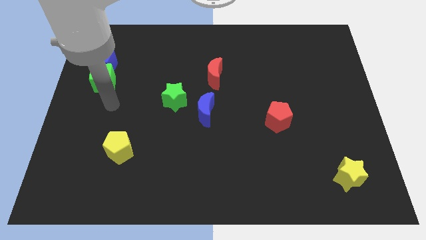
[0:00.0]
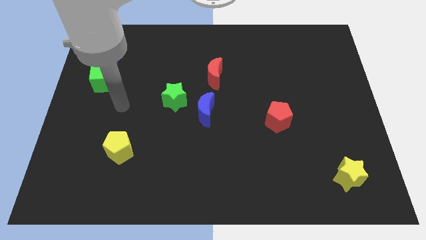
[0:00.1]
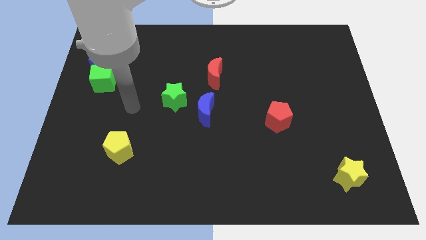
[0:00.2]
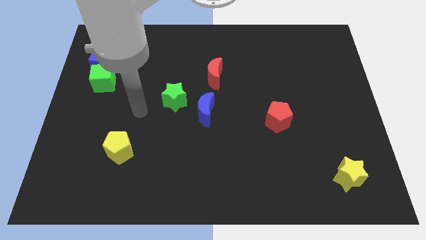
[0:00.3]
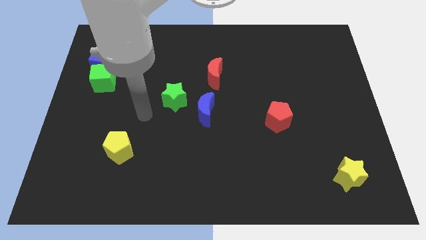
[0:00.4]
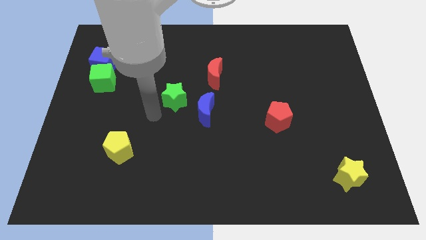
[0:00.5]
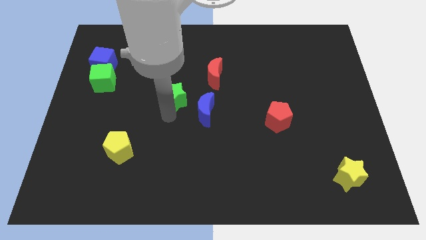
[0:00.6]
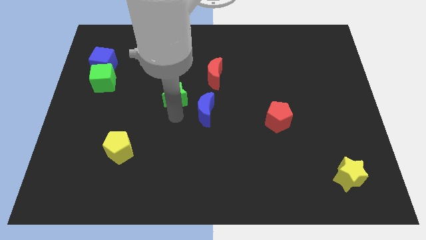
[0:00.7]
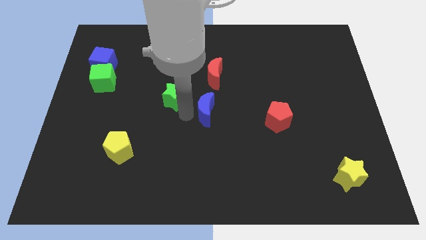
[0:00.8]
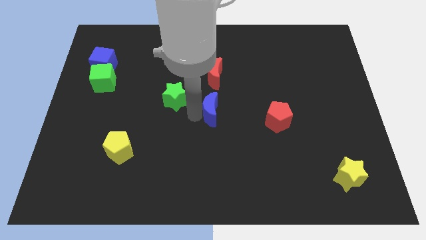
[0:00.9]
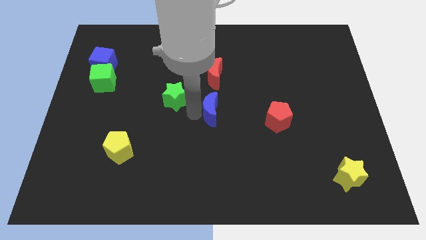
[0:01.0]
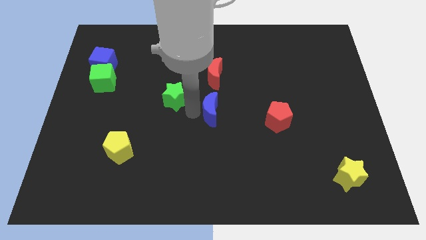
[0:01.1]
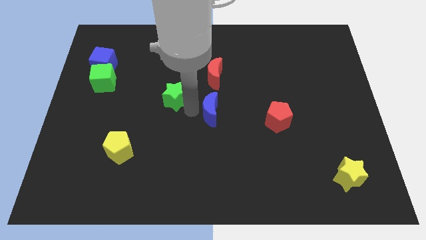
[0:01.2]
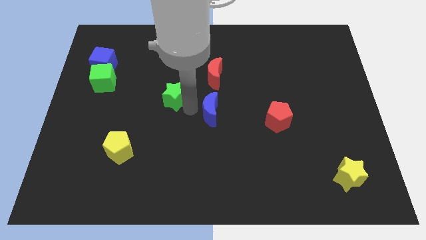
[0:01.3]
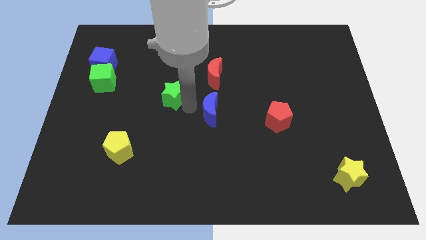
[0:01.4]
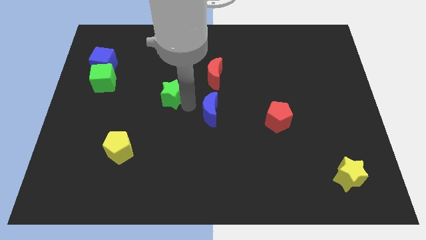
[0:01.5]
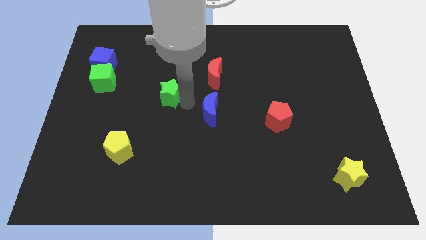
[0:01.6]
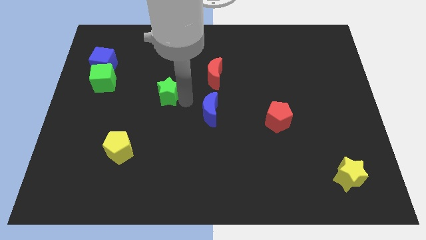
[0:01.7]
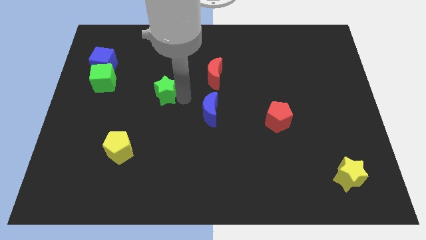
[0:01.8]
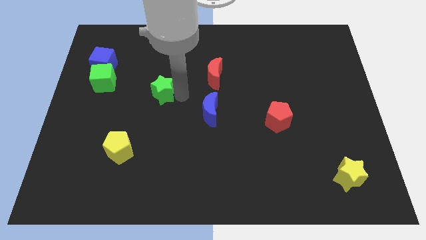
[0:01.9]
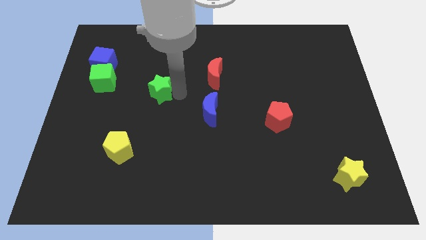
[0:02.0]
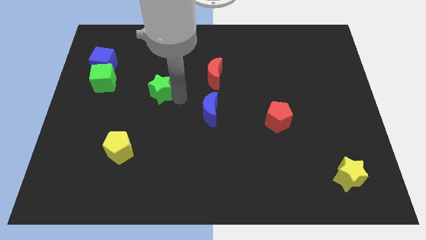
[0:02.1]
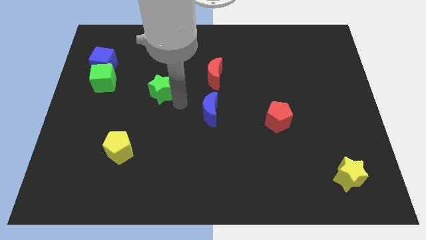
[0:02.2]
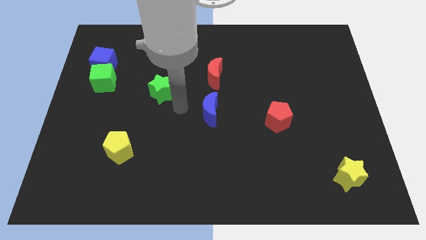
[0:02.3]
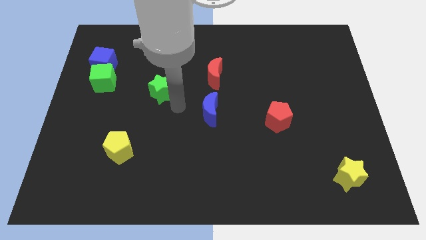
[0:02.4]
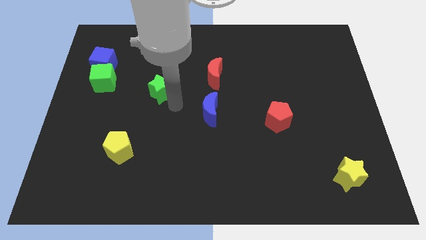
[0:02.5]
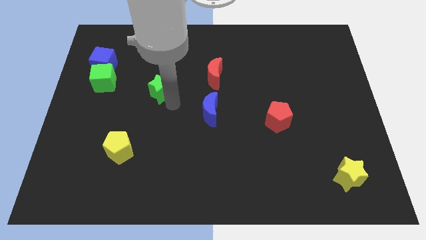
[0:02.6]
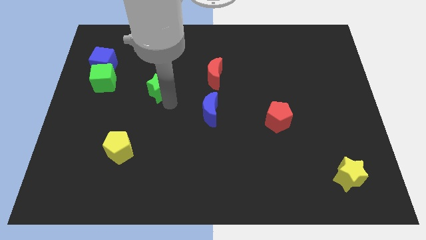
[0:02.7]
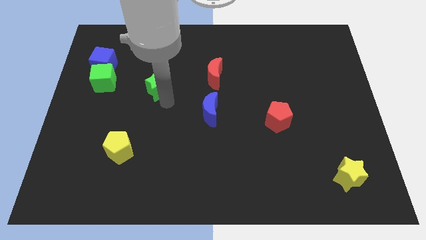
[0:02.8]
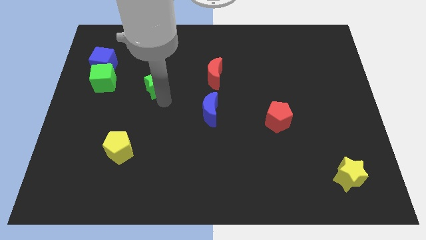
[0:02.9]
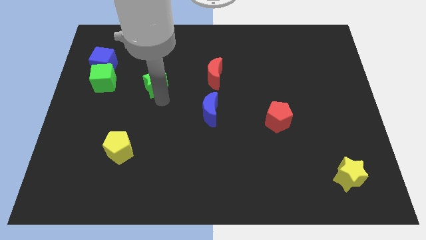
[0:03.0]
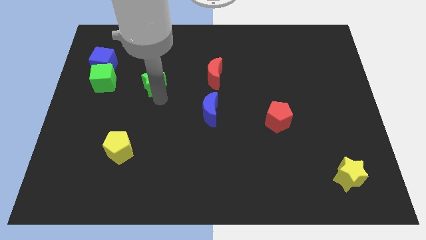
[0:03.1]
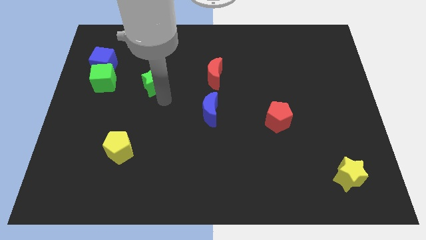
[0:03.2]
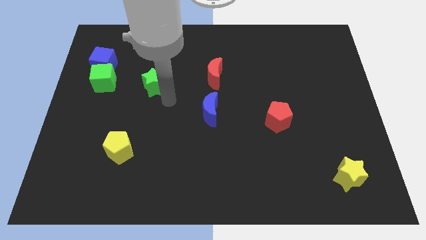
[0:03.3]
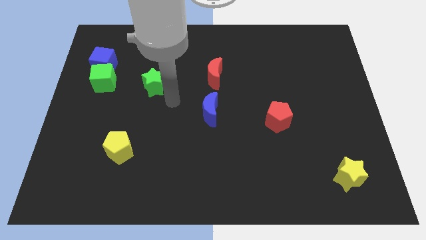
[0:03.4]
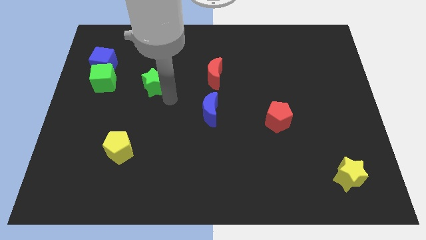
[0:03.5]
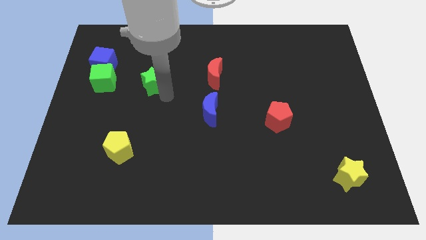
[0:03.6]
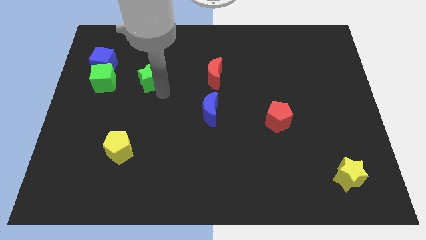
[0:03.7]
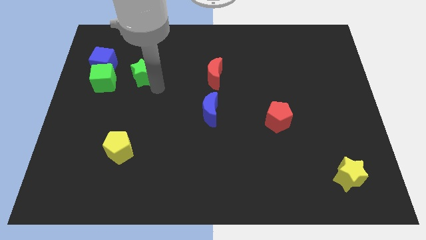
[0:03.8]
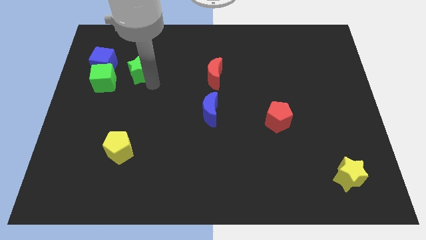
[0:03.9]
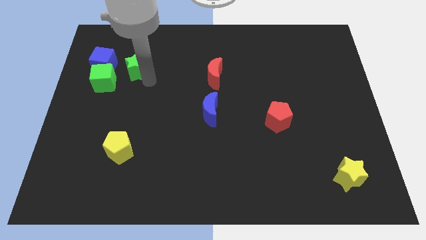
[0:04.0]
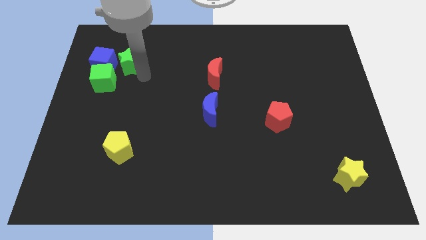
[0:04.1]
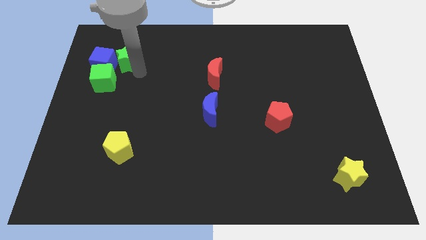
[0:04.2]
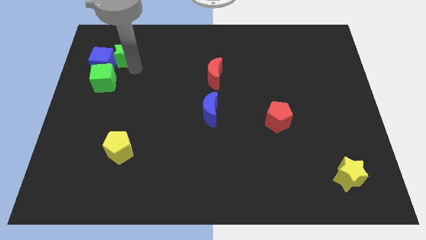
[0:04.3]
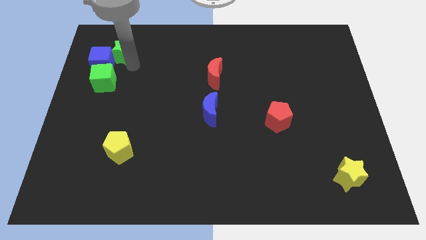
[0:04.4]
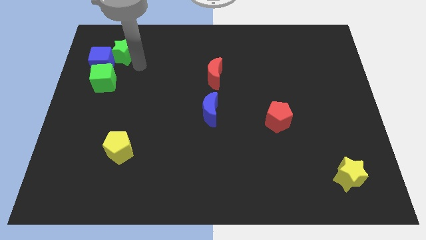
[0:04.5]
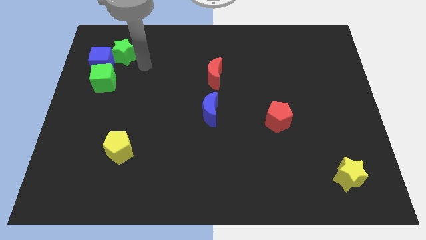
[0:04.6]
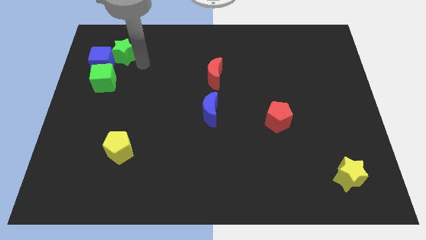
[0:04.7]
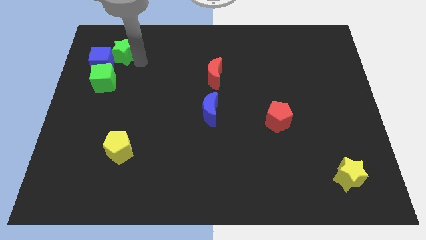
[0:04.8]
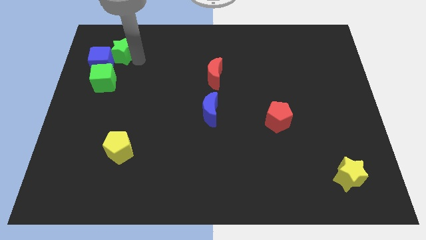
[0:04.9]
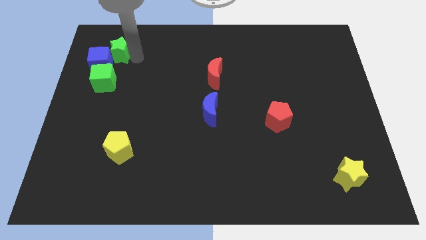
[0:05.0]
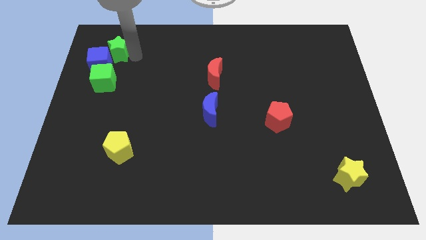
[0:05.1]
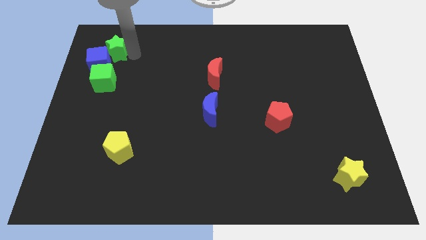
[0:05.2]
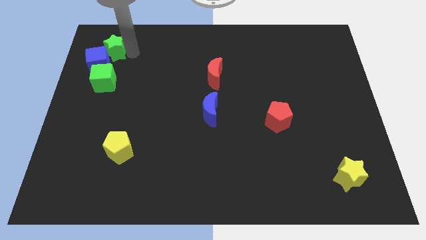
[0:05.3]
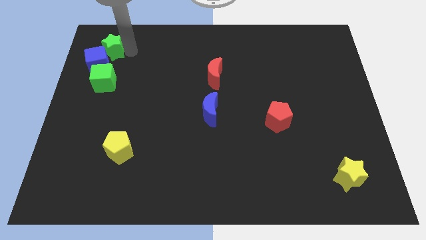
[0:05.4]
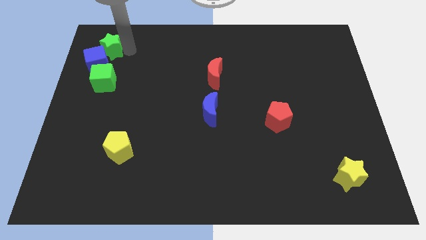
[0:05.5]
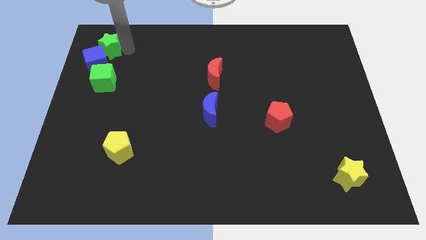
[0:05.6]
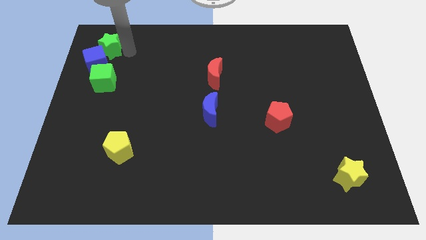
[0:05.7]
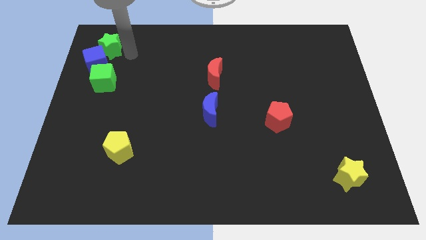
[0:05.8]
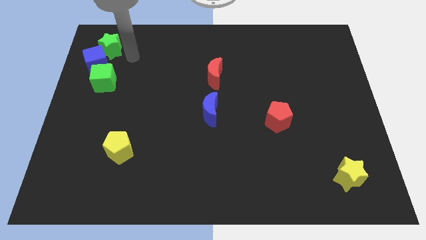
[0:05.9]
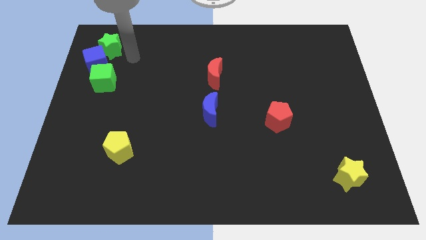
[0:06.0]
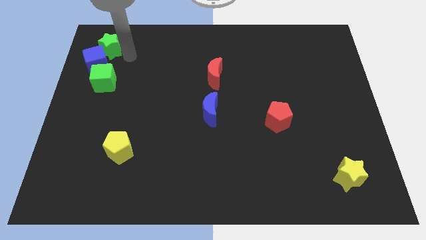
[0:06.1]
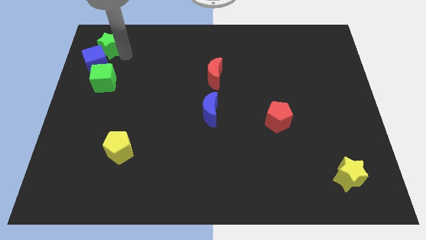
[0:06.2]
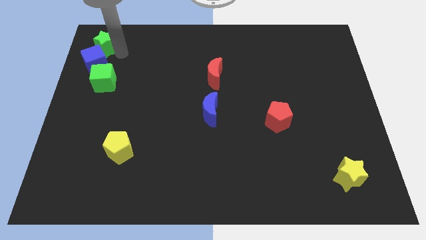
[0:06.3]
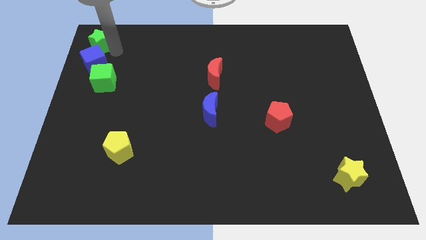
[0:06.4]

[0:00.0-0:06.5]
slide the green star to the upper left corner
